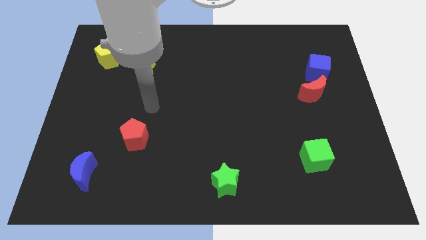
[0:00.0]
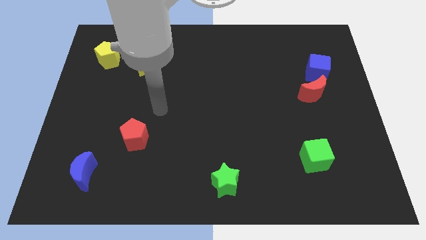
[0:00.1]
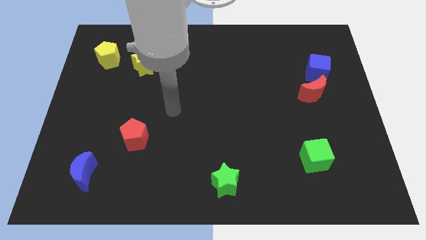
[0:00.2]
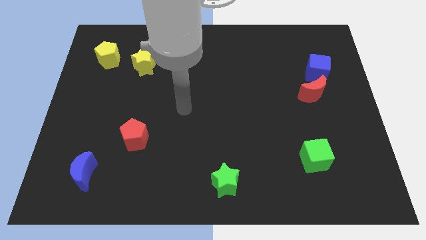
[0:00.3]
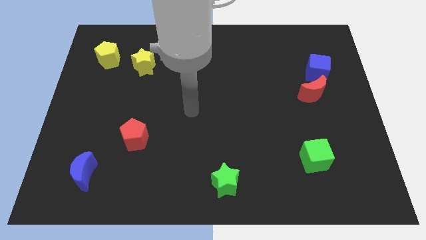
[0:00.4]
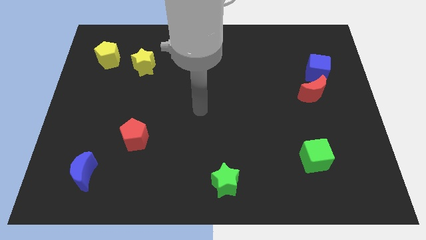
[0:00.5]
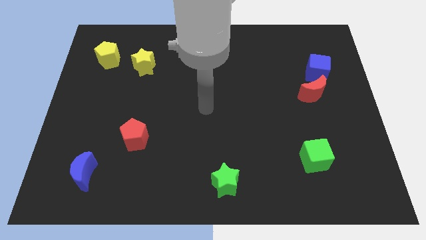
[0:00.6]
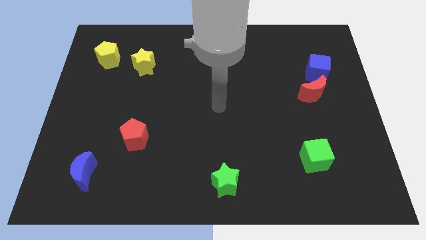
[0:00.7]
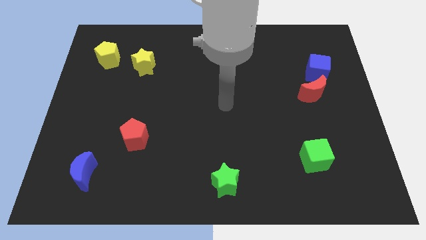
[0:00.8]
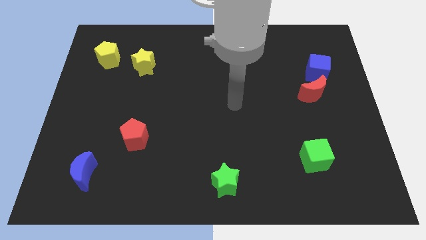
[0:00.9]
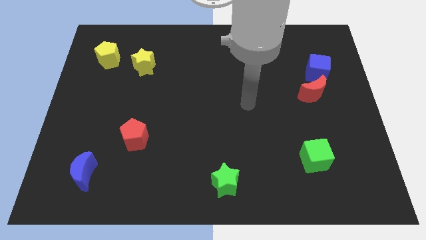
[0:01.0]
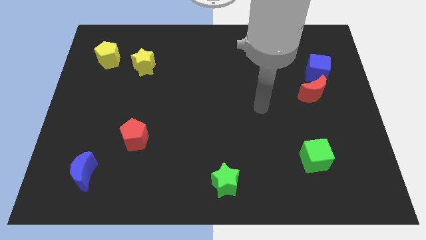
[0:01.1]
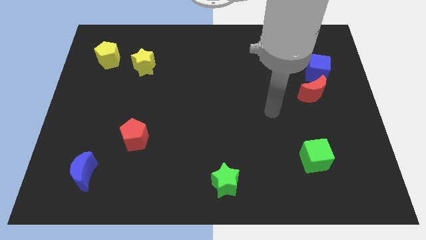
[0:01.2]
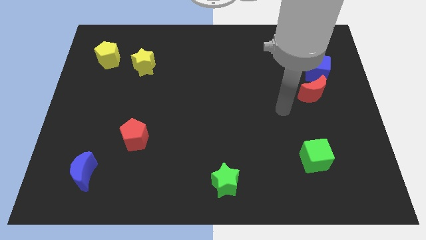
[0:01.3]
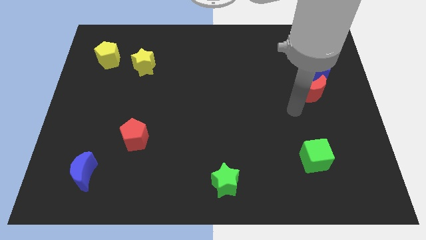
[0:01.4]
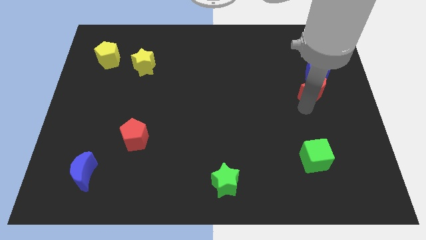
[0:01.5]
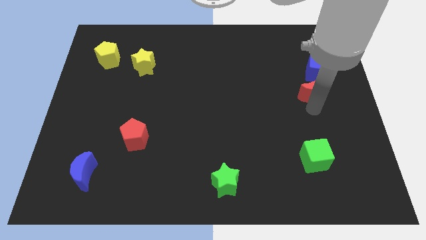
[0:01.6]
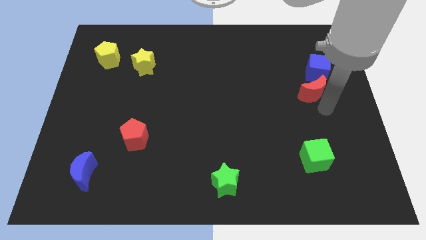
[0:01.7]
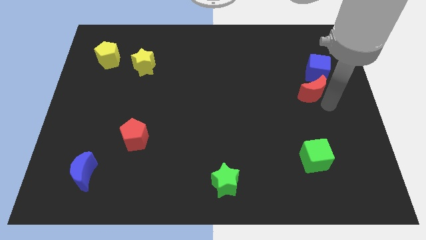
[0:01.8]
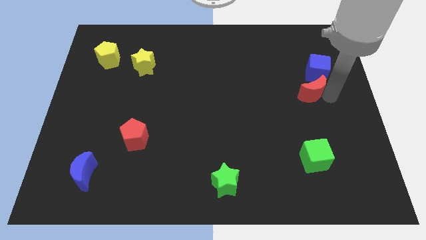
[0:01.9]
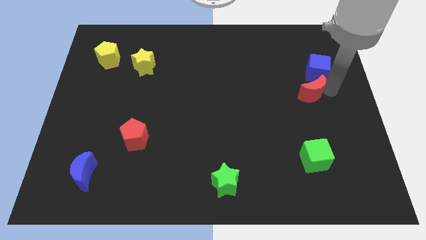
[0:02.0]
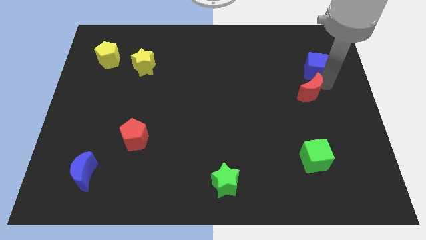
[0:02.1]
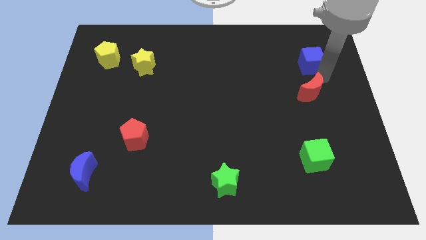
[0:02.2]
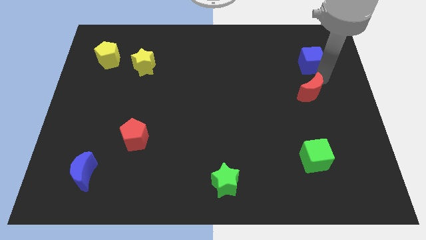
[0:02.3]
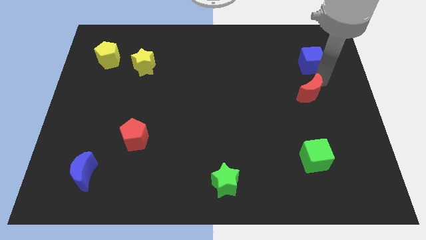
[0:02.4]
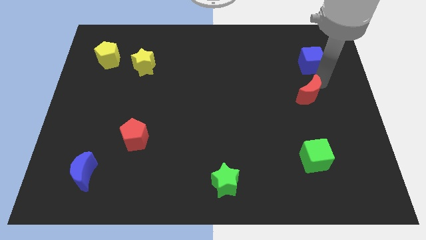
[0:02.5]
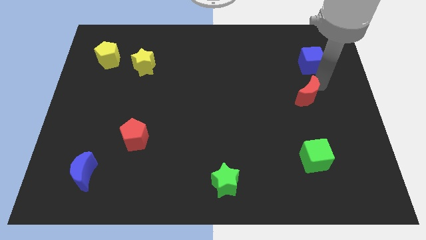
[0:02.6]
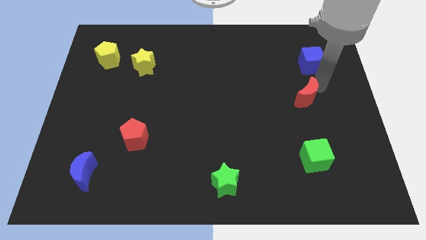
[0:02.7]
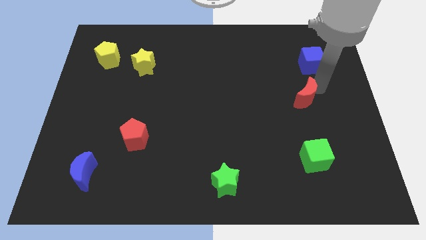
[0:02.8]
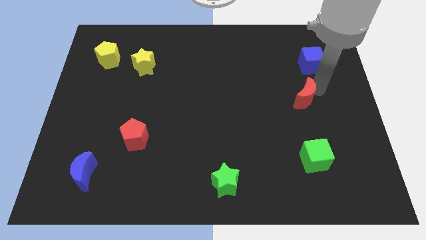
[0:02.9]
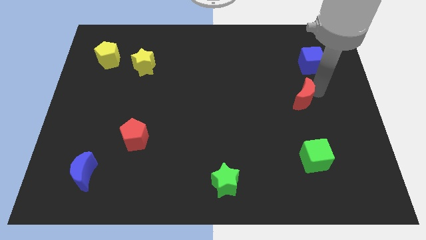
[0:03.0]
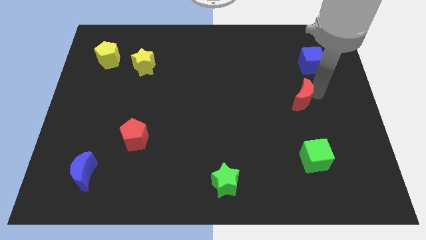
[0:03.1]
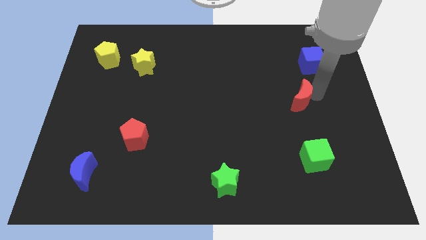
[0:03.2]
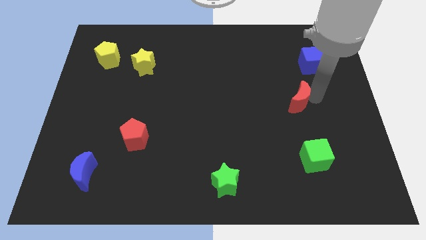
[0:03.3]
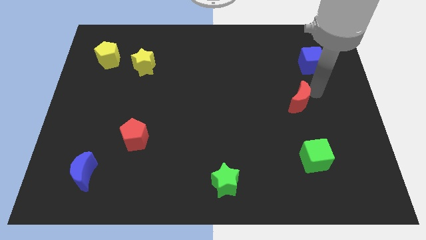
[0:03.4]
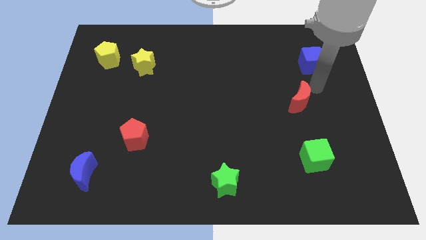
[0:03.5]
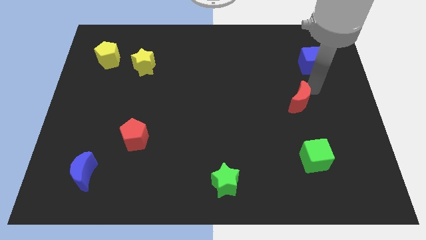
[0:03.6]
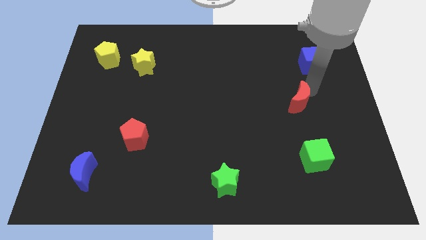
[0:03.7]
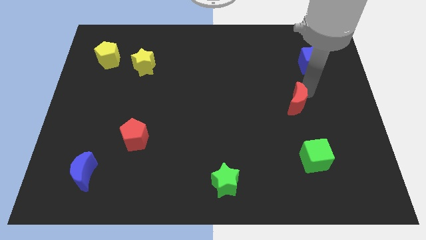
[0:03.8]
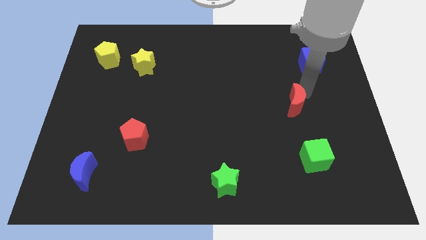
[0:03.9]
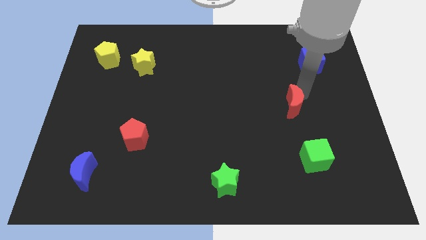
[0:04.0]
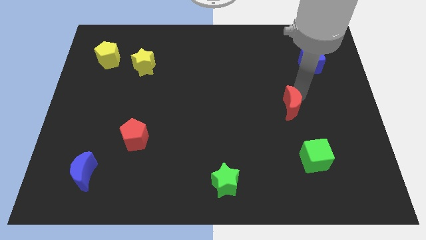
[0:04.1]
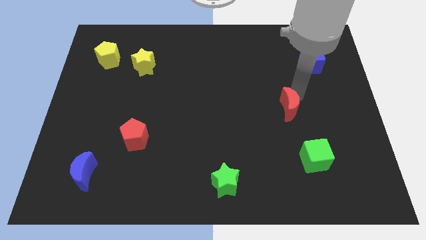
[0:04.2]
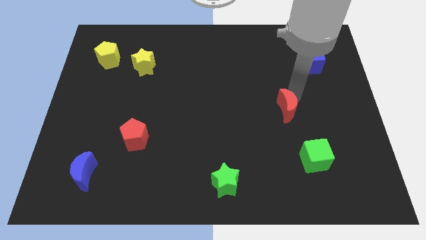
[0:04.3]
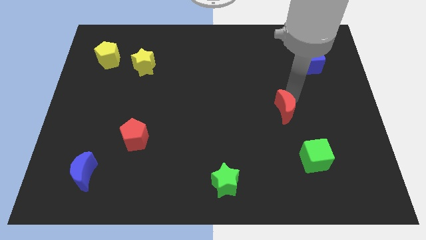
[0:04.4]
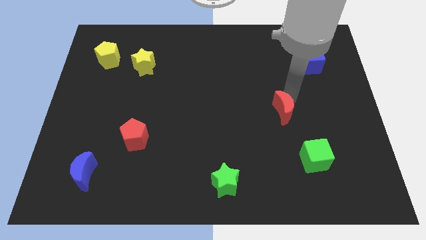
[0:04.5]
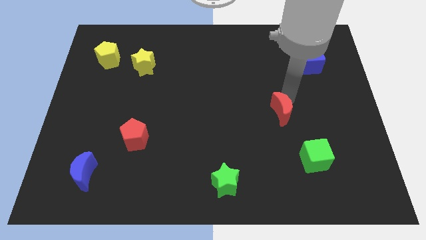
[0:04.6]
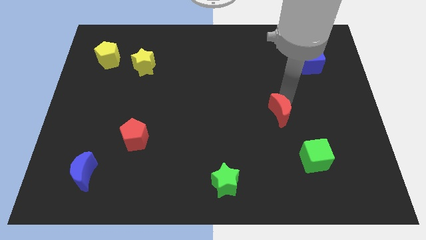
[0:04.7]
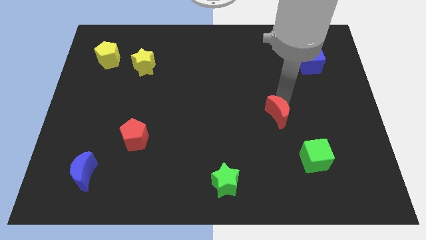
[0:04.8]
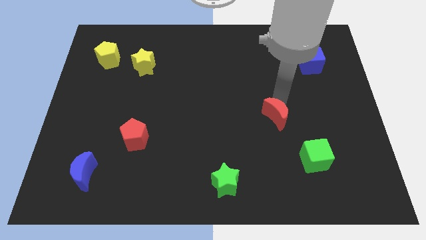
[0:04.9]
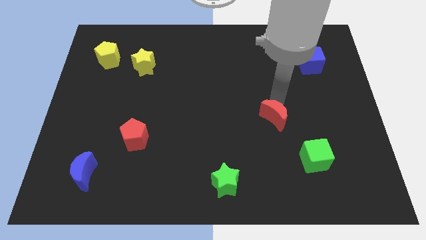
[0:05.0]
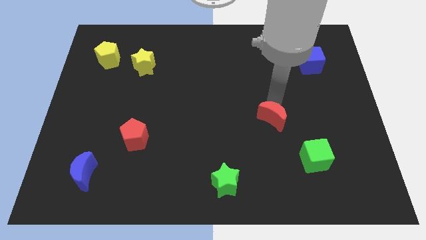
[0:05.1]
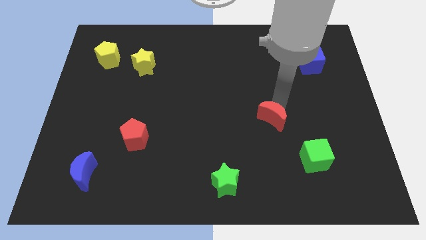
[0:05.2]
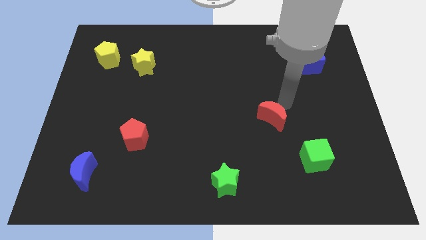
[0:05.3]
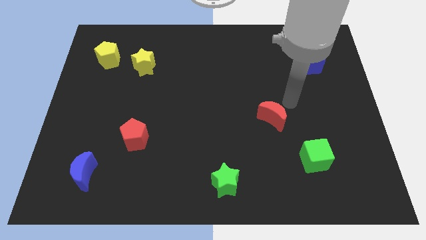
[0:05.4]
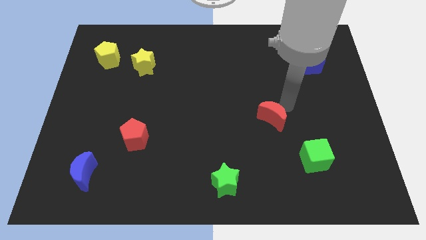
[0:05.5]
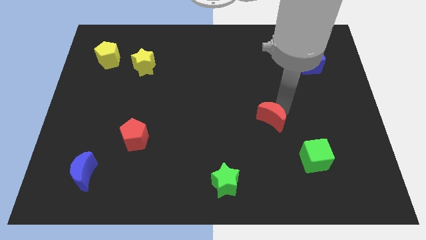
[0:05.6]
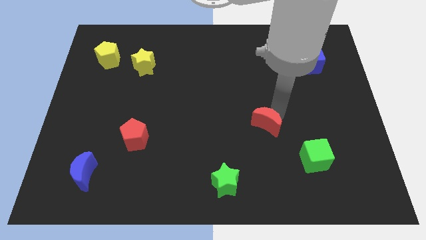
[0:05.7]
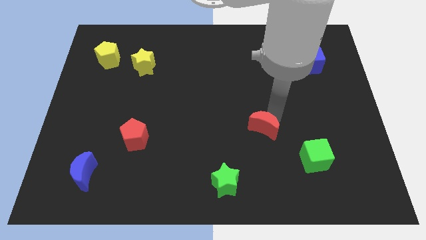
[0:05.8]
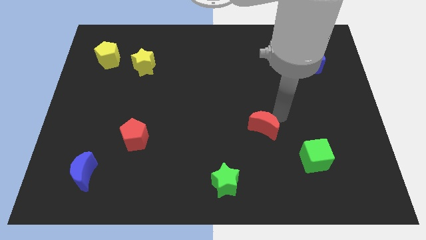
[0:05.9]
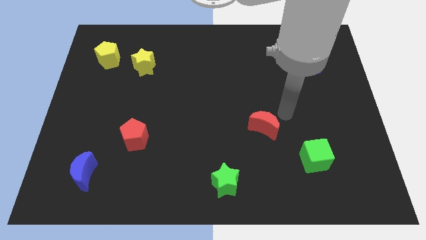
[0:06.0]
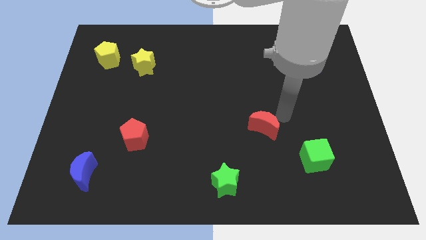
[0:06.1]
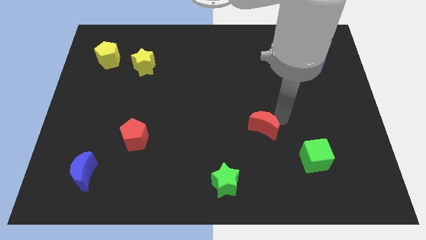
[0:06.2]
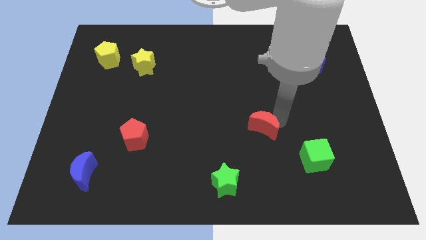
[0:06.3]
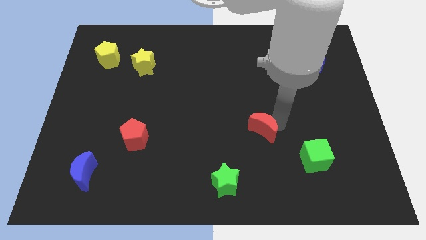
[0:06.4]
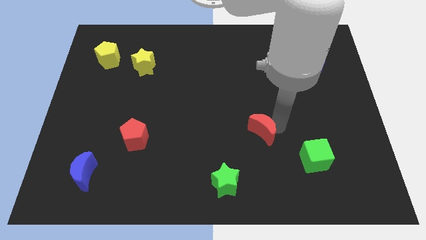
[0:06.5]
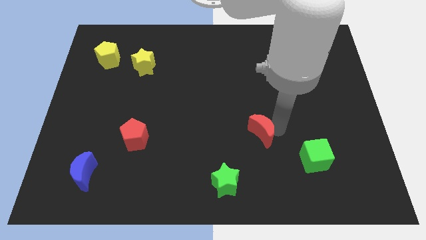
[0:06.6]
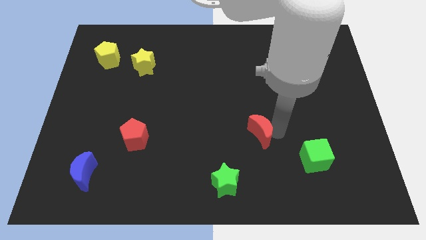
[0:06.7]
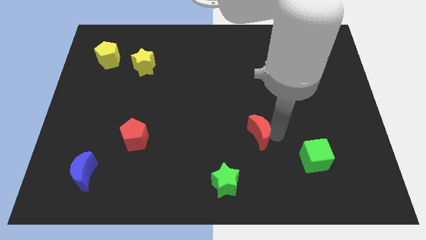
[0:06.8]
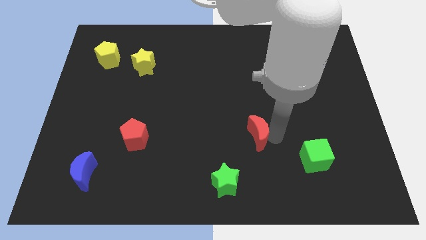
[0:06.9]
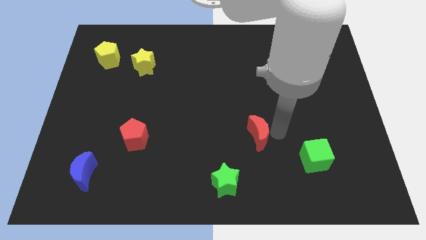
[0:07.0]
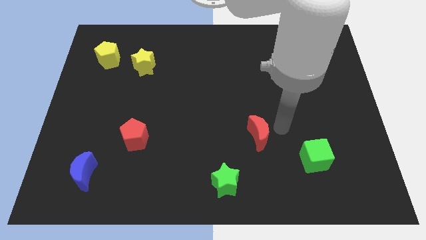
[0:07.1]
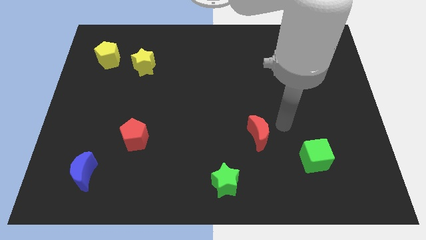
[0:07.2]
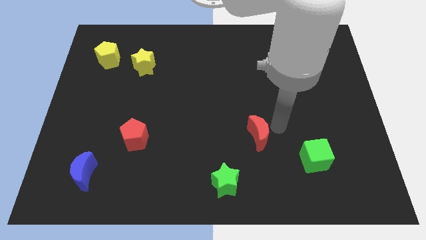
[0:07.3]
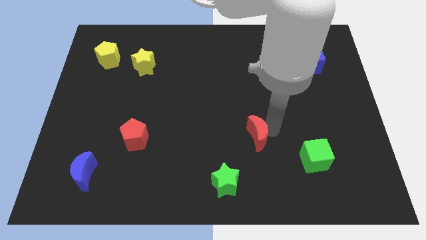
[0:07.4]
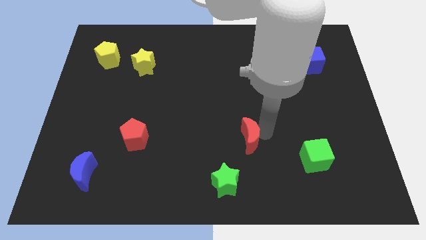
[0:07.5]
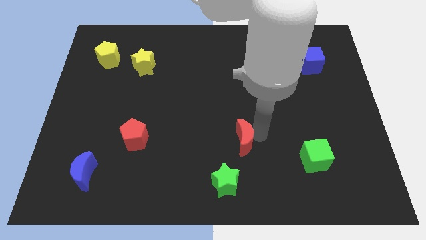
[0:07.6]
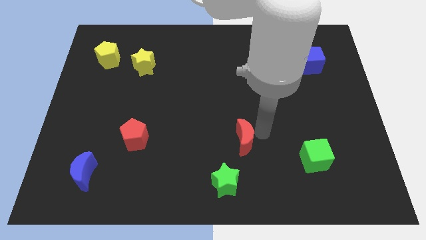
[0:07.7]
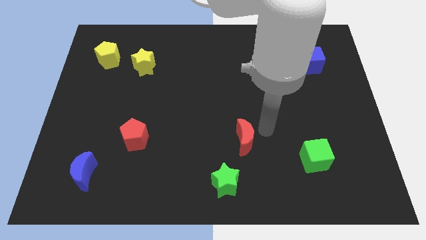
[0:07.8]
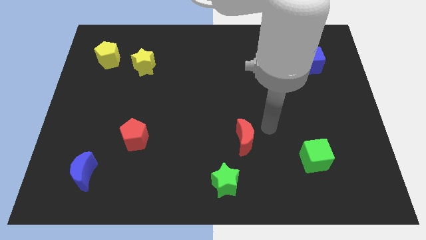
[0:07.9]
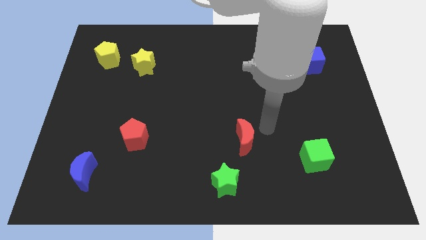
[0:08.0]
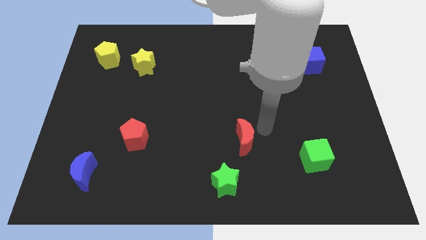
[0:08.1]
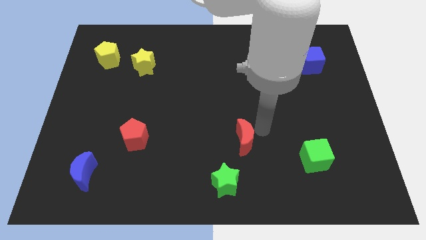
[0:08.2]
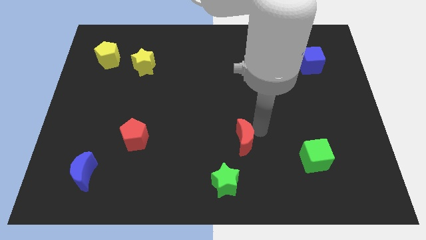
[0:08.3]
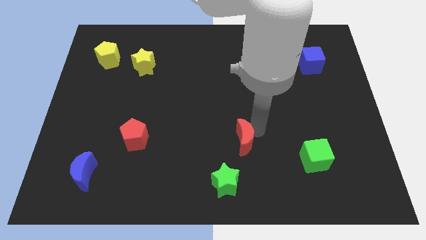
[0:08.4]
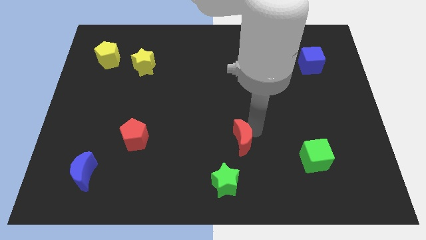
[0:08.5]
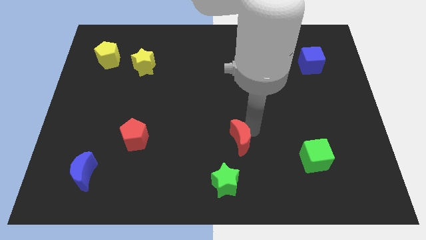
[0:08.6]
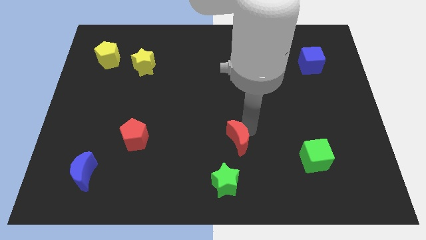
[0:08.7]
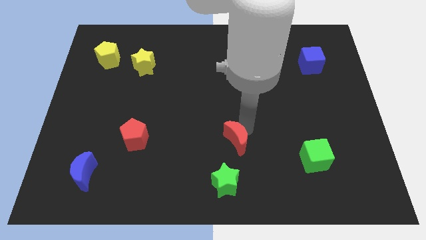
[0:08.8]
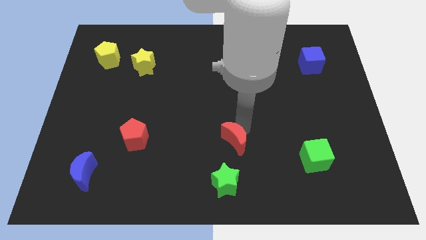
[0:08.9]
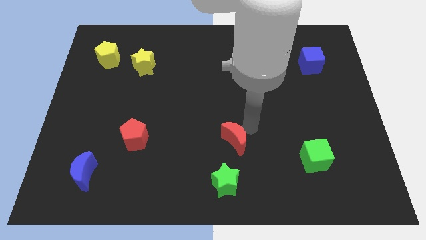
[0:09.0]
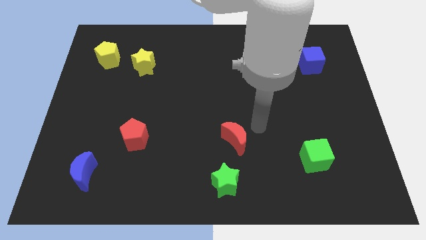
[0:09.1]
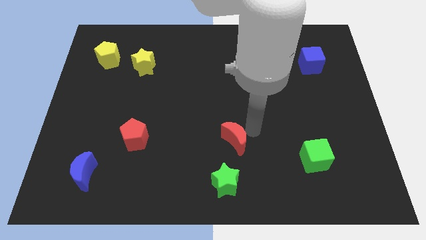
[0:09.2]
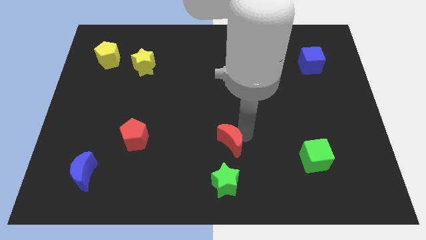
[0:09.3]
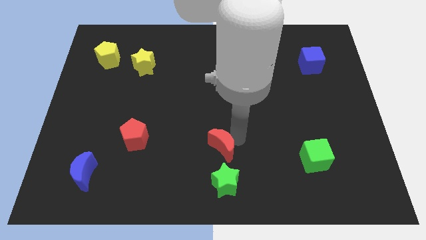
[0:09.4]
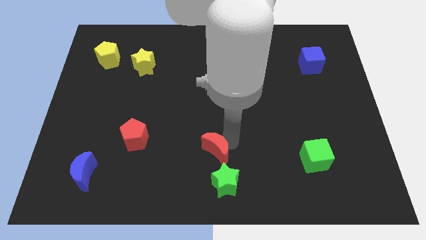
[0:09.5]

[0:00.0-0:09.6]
put the red moon to the top left of the green star
